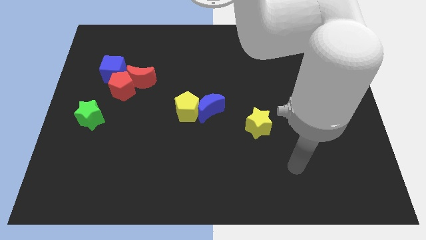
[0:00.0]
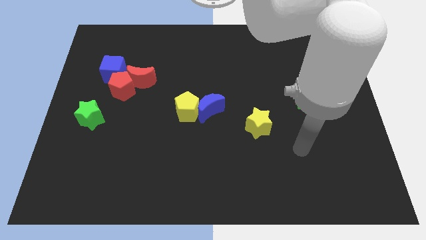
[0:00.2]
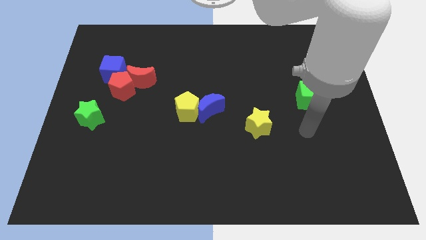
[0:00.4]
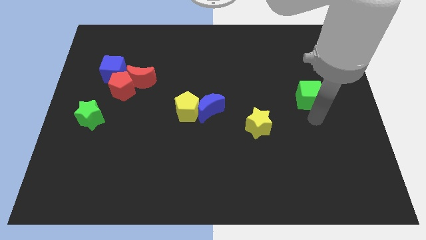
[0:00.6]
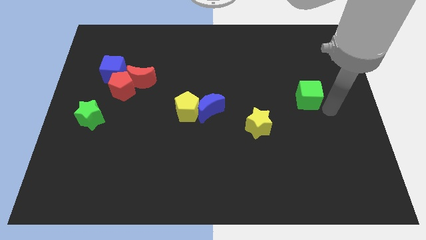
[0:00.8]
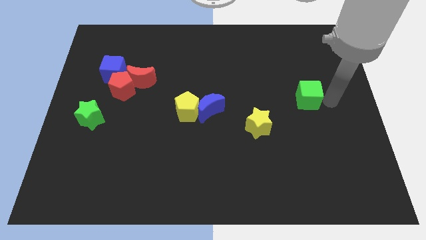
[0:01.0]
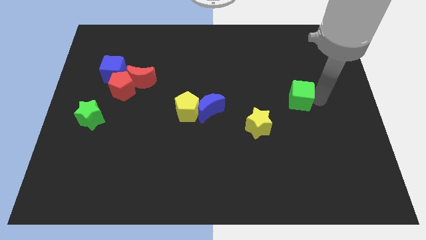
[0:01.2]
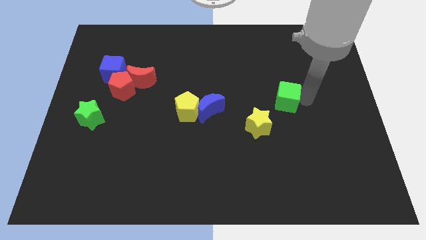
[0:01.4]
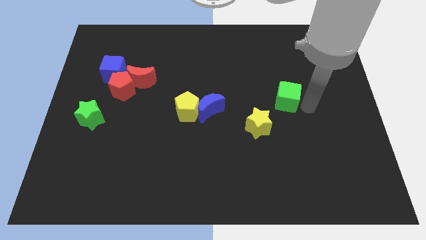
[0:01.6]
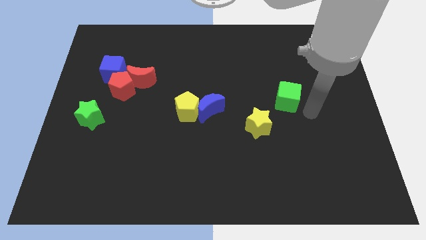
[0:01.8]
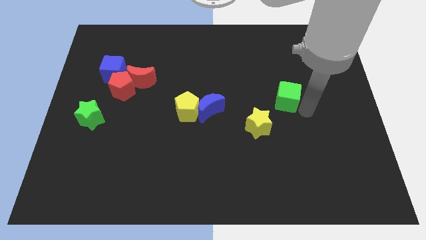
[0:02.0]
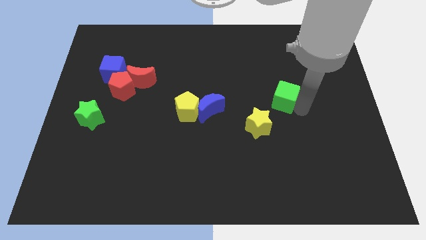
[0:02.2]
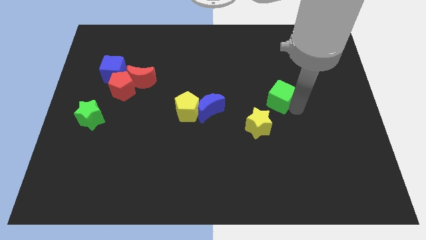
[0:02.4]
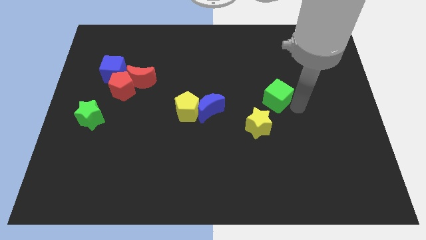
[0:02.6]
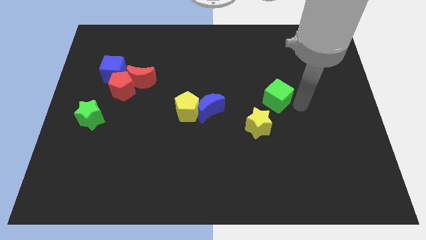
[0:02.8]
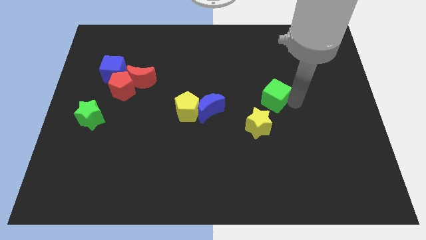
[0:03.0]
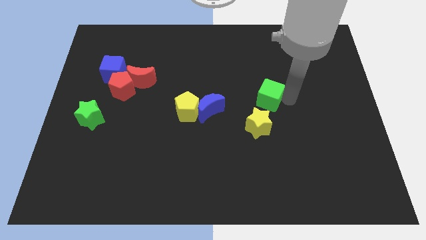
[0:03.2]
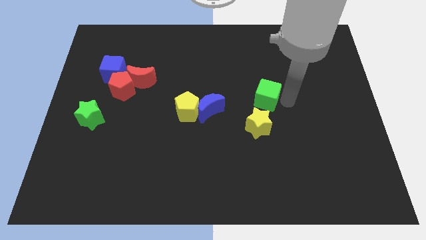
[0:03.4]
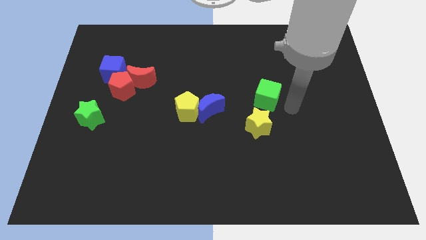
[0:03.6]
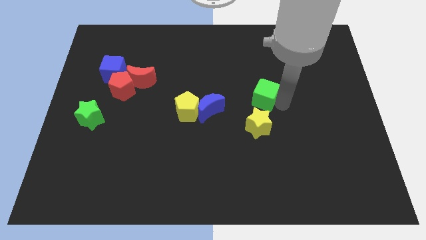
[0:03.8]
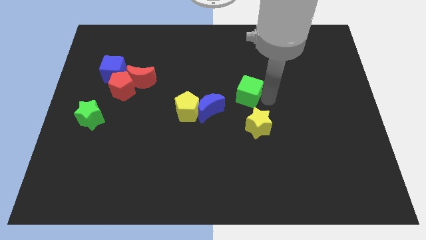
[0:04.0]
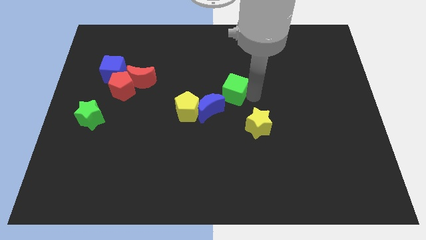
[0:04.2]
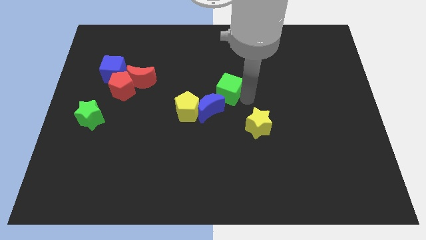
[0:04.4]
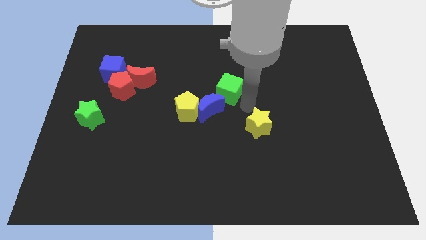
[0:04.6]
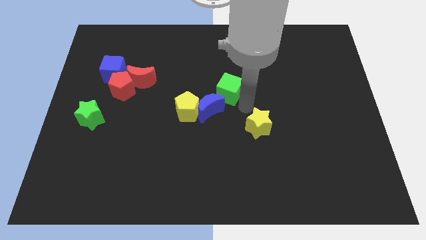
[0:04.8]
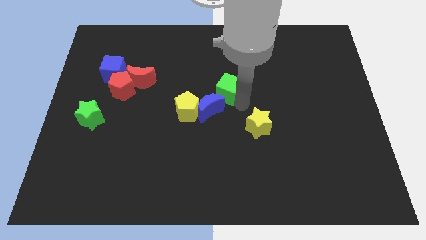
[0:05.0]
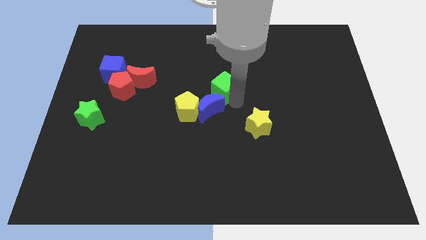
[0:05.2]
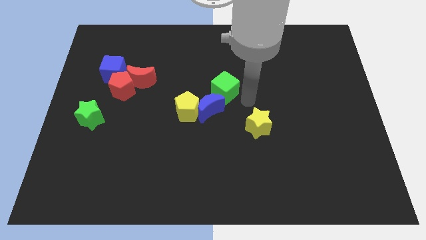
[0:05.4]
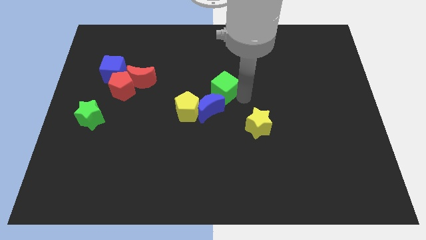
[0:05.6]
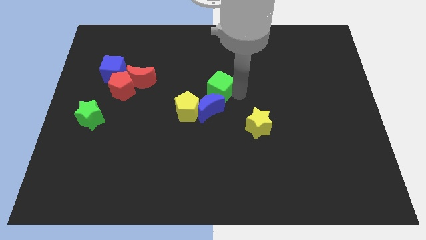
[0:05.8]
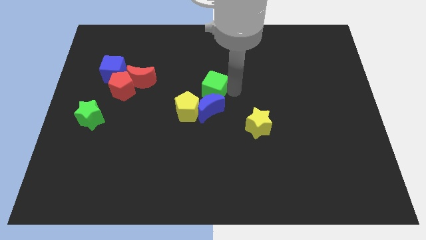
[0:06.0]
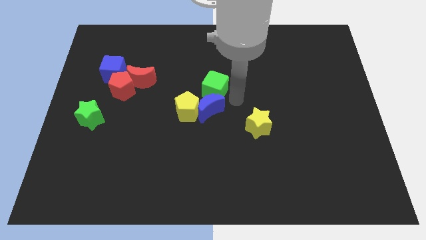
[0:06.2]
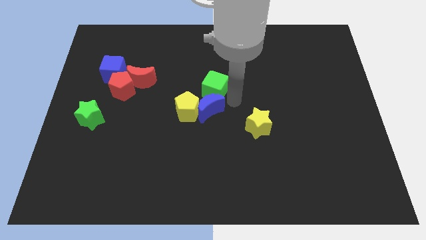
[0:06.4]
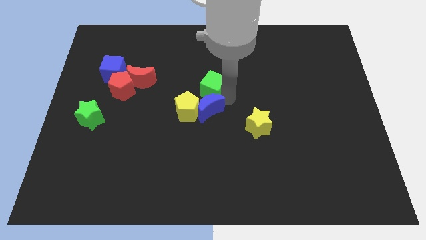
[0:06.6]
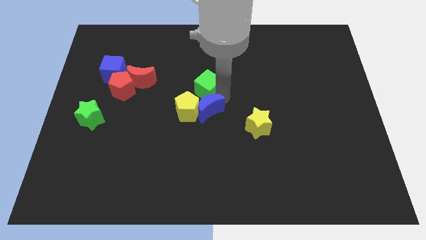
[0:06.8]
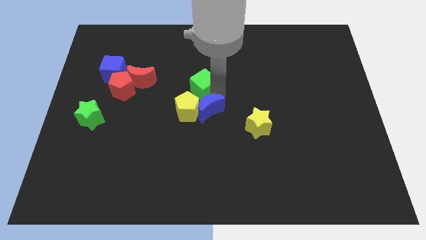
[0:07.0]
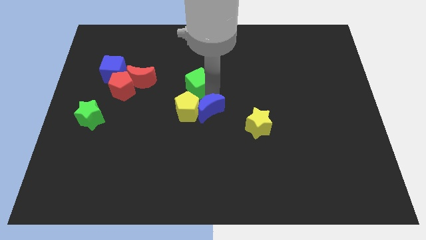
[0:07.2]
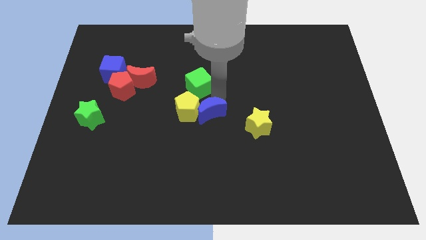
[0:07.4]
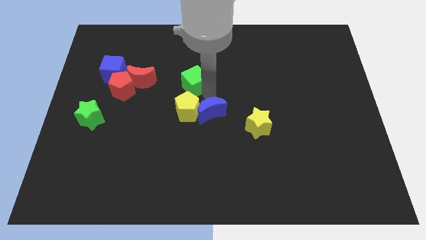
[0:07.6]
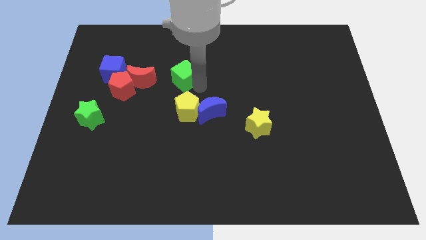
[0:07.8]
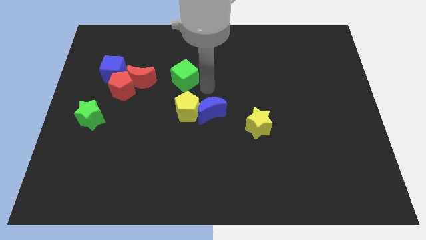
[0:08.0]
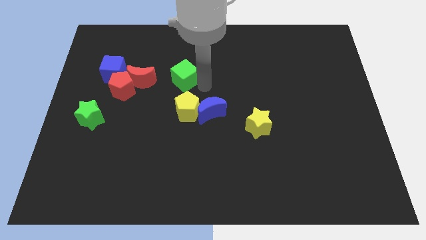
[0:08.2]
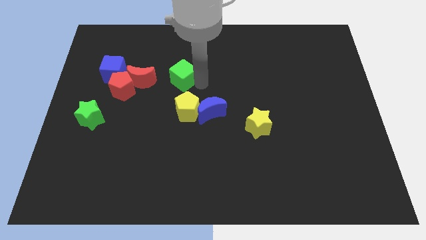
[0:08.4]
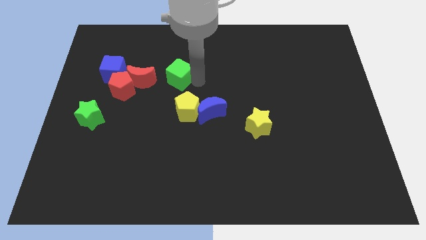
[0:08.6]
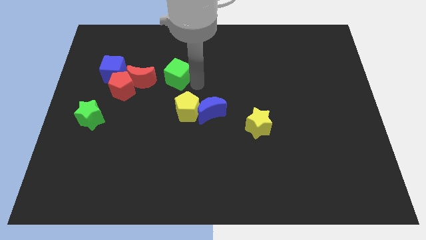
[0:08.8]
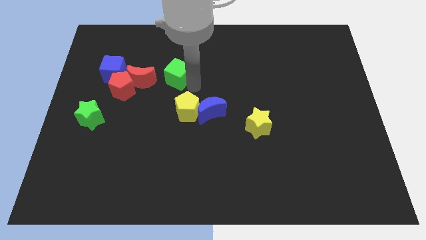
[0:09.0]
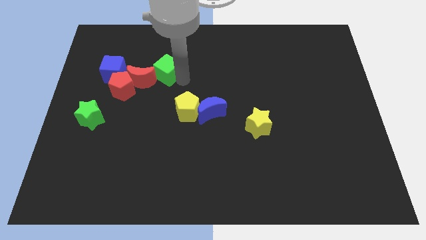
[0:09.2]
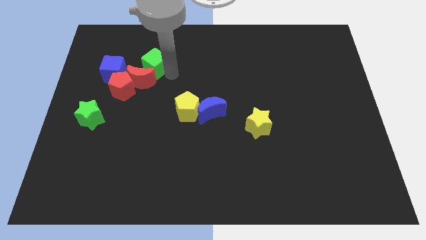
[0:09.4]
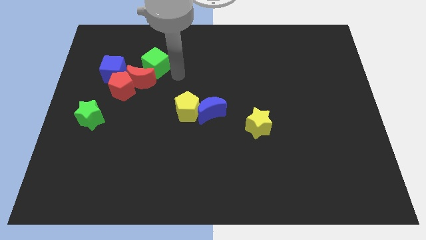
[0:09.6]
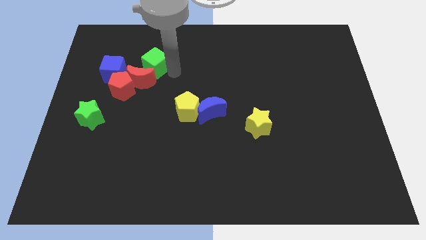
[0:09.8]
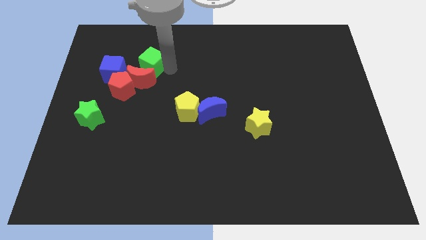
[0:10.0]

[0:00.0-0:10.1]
move the green cube to the top right of the blue cube

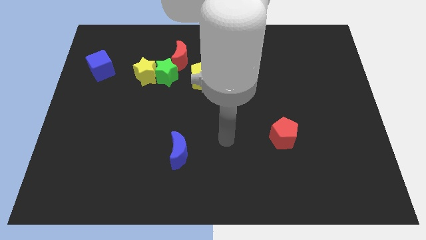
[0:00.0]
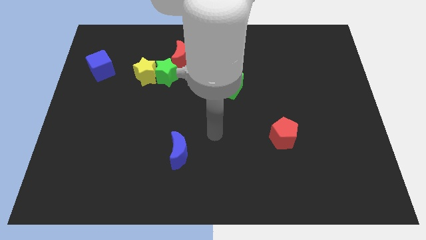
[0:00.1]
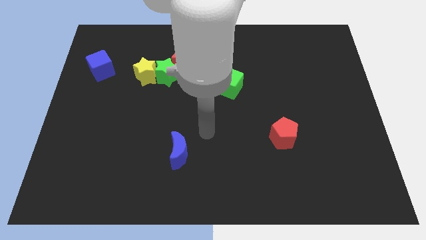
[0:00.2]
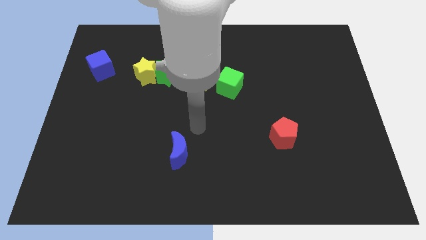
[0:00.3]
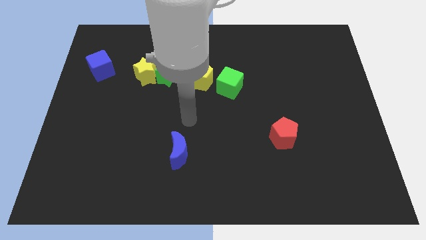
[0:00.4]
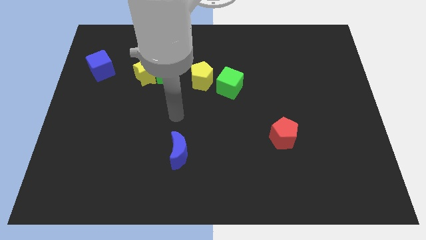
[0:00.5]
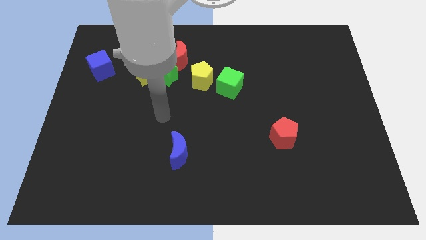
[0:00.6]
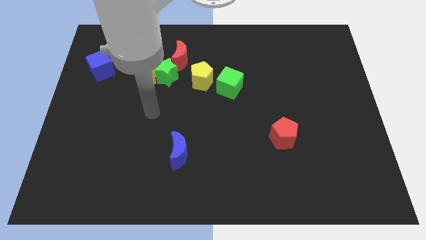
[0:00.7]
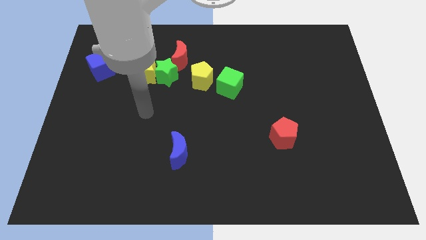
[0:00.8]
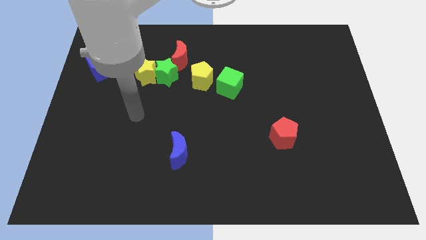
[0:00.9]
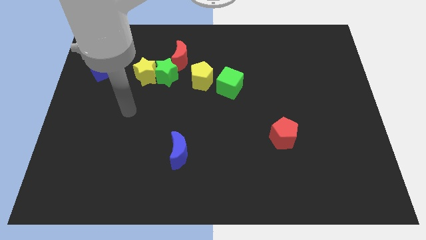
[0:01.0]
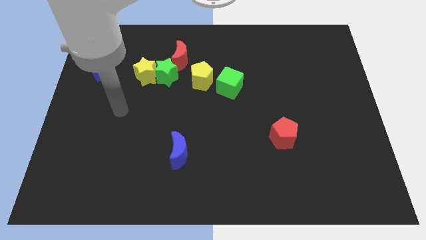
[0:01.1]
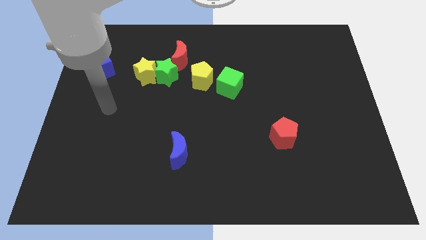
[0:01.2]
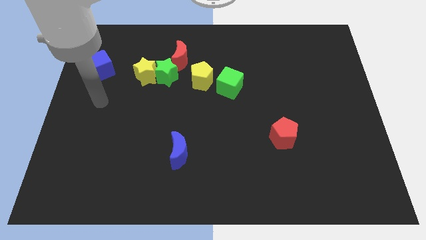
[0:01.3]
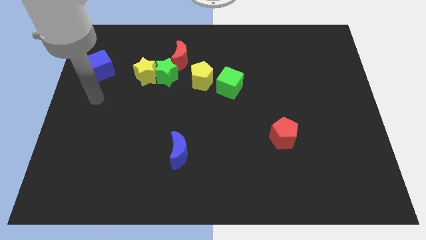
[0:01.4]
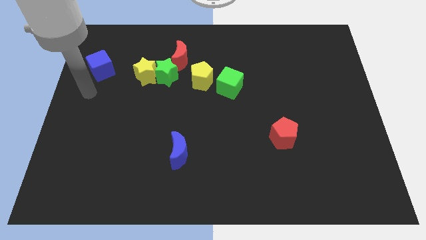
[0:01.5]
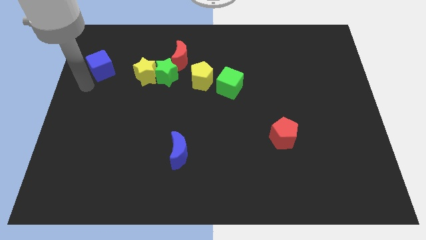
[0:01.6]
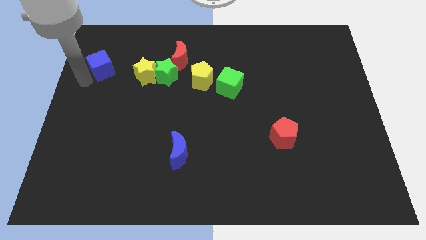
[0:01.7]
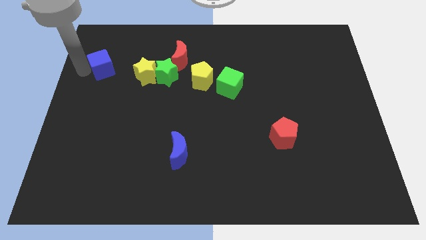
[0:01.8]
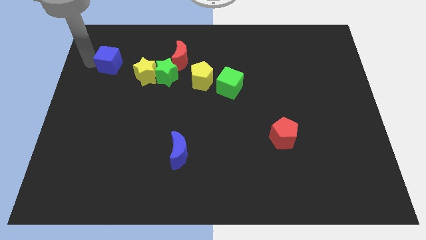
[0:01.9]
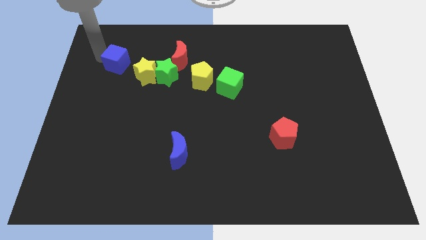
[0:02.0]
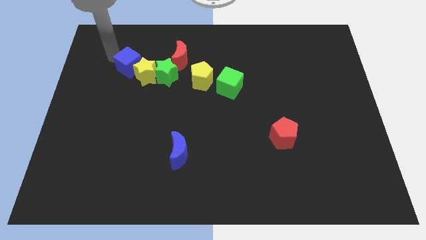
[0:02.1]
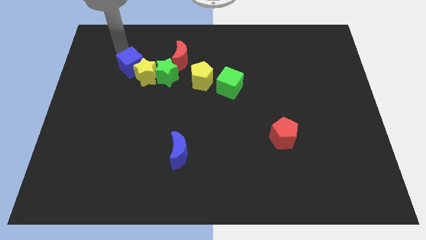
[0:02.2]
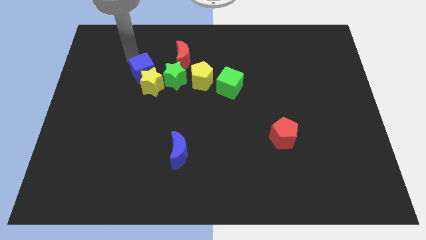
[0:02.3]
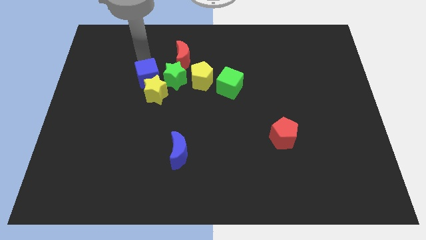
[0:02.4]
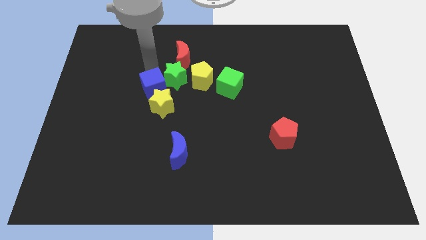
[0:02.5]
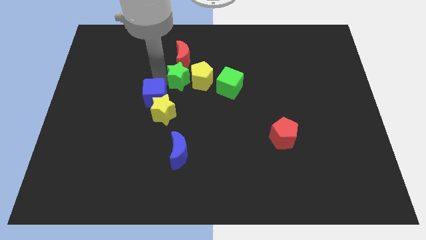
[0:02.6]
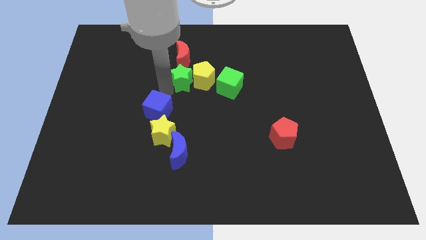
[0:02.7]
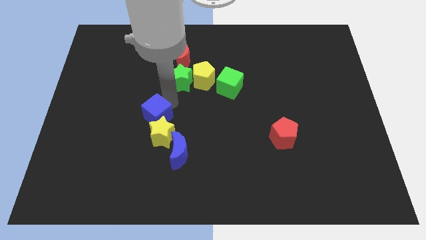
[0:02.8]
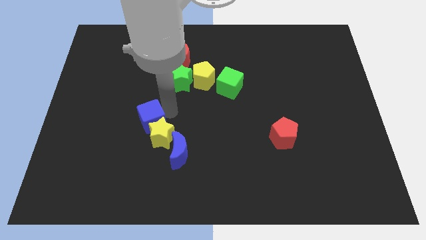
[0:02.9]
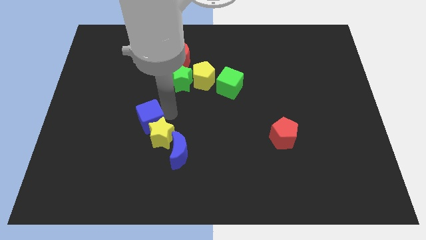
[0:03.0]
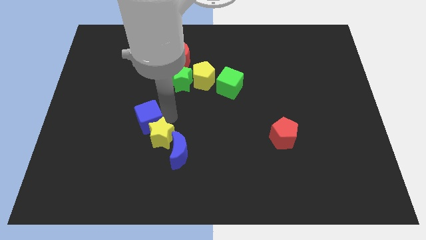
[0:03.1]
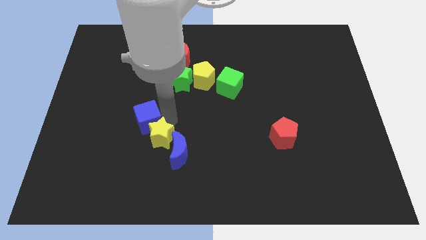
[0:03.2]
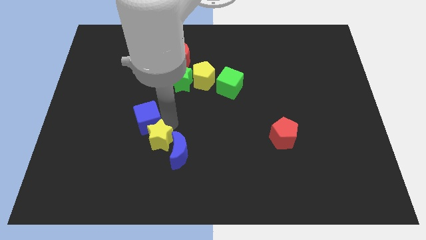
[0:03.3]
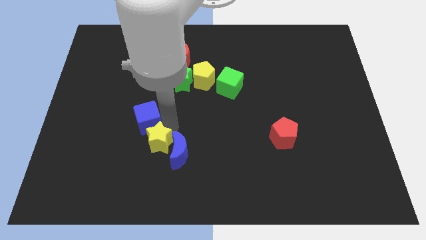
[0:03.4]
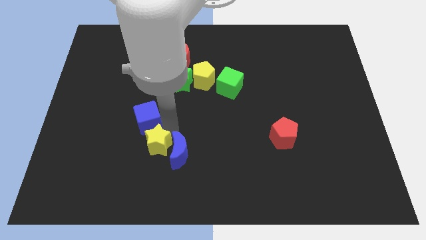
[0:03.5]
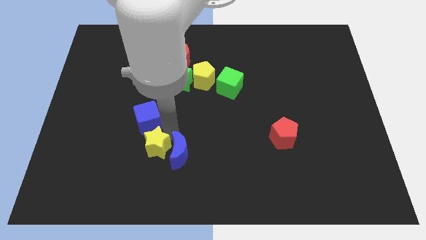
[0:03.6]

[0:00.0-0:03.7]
put the yellow star to the bottom left side of the blue moon
